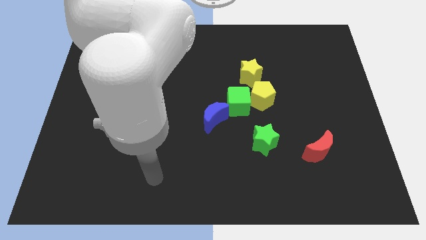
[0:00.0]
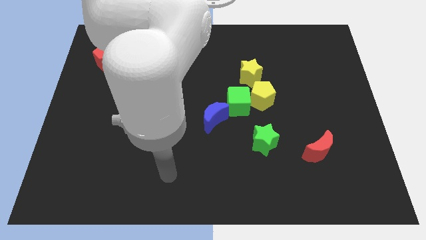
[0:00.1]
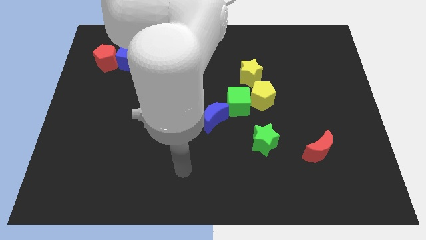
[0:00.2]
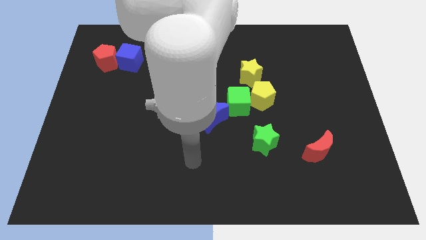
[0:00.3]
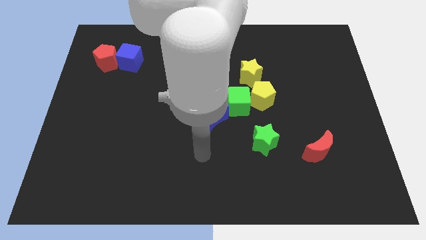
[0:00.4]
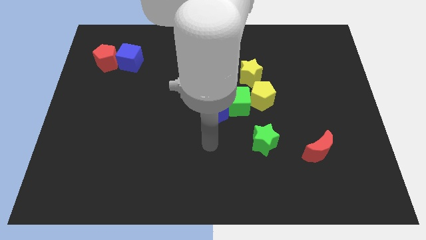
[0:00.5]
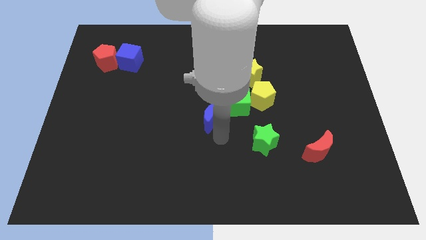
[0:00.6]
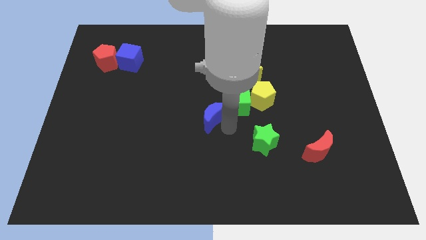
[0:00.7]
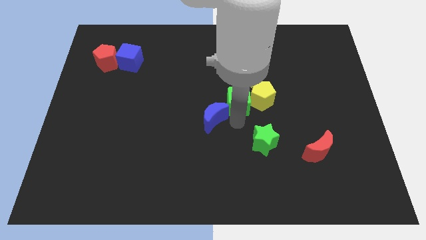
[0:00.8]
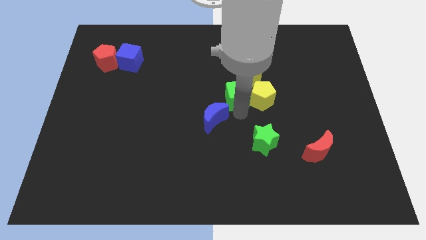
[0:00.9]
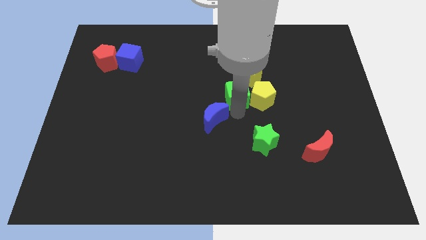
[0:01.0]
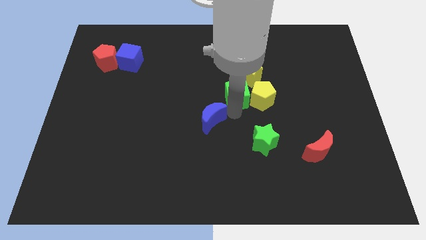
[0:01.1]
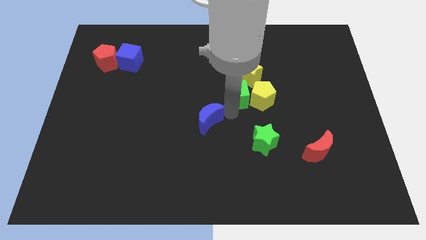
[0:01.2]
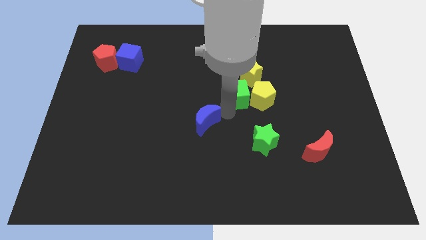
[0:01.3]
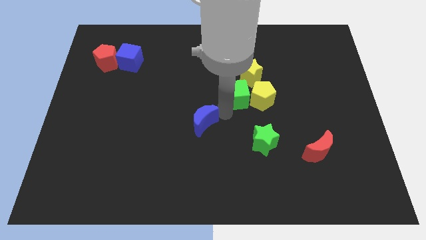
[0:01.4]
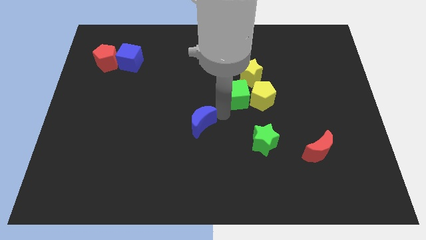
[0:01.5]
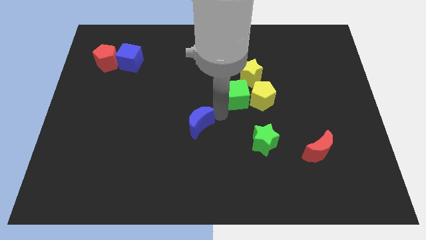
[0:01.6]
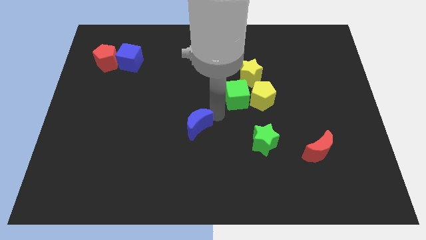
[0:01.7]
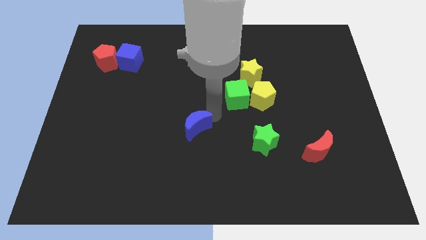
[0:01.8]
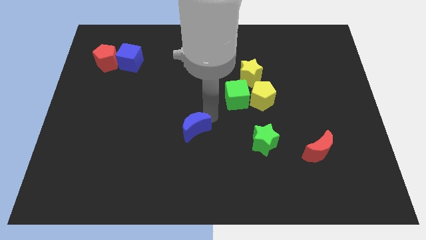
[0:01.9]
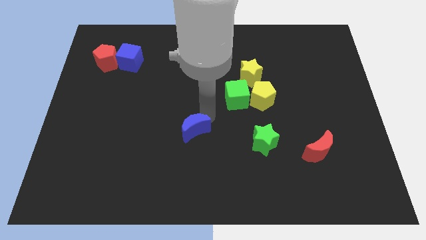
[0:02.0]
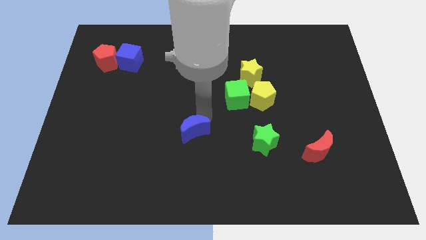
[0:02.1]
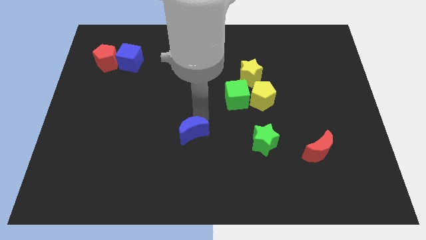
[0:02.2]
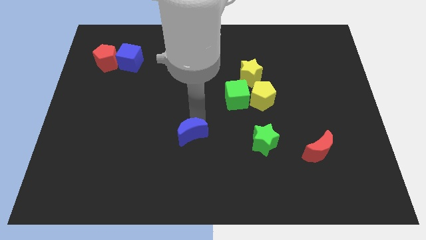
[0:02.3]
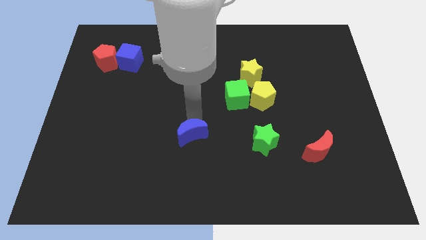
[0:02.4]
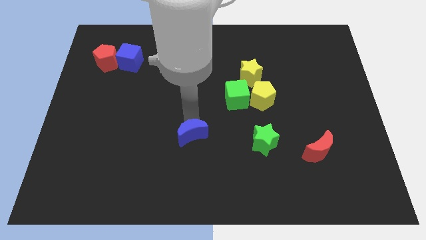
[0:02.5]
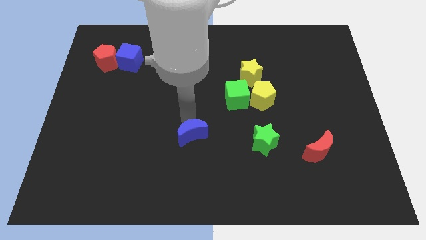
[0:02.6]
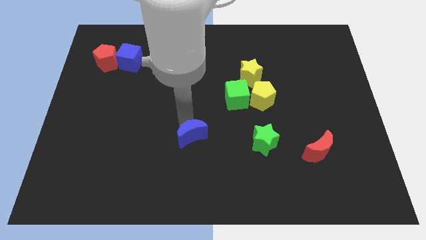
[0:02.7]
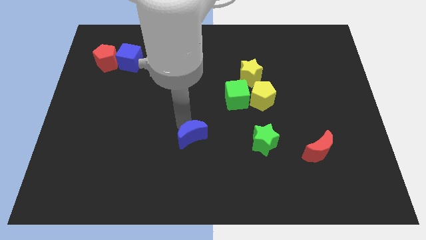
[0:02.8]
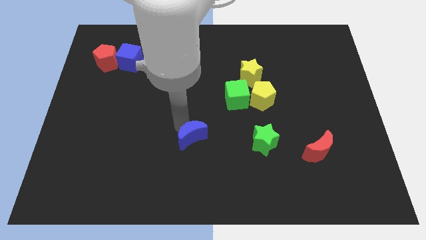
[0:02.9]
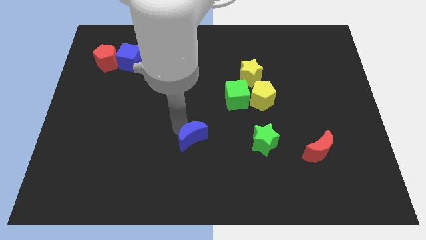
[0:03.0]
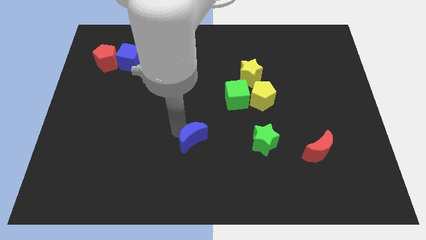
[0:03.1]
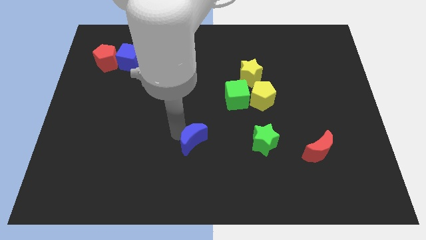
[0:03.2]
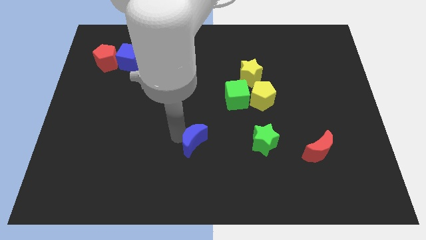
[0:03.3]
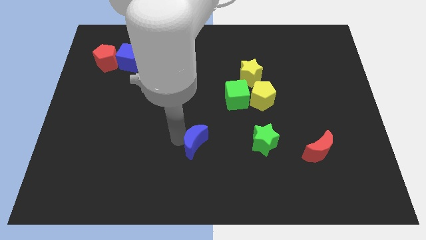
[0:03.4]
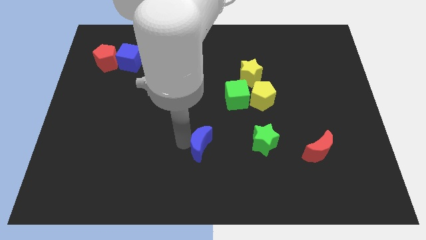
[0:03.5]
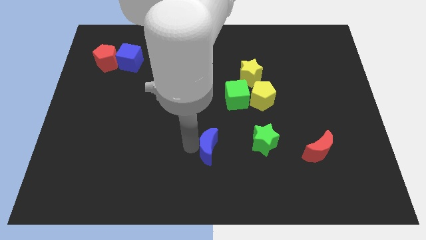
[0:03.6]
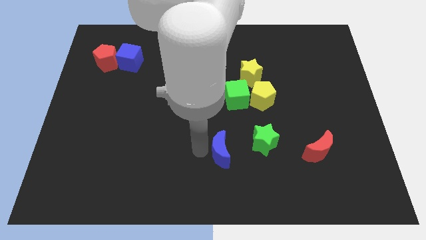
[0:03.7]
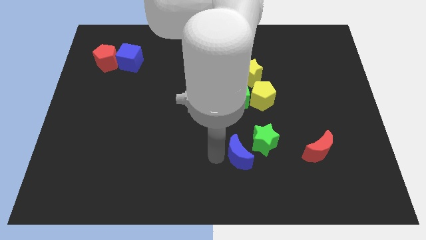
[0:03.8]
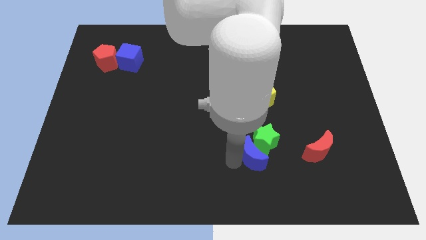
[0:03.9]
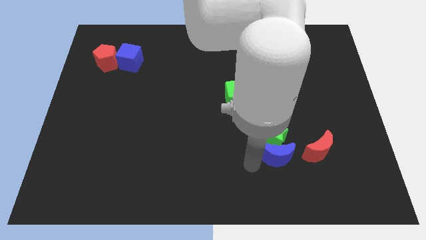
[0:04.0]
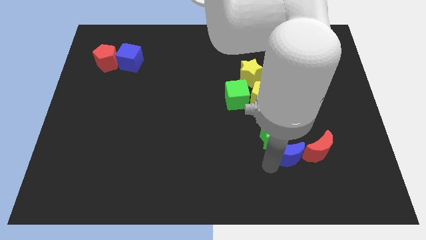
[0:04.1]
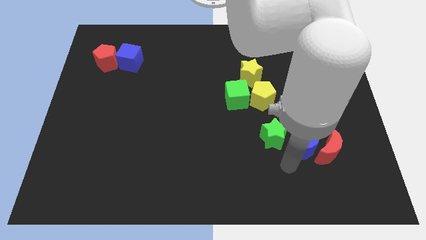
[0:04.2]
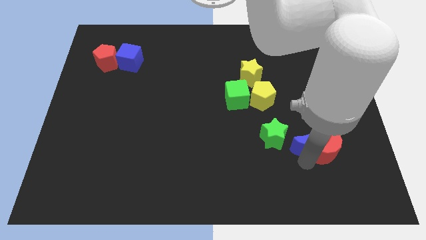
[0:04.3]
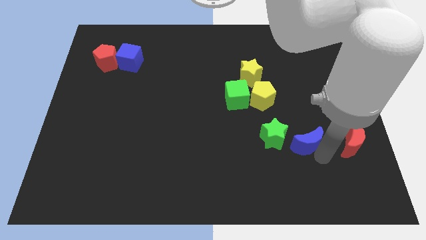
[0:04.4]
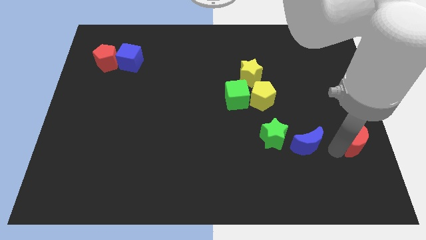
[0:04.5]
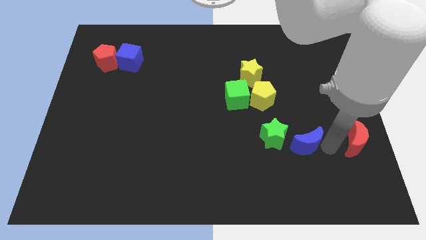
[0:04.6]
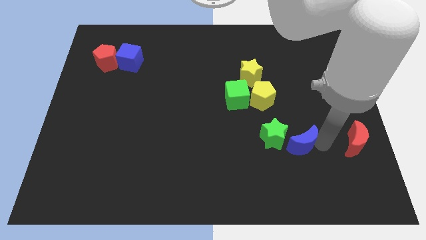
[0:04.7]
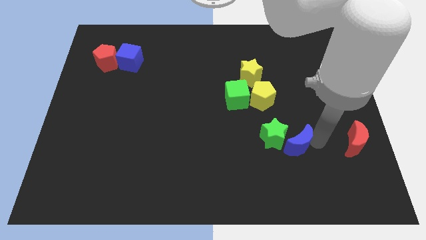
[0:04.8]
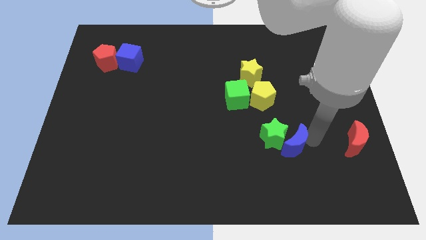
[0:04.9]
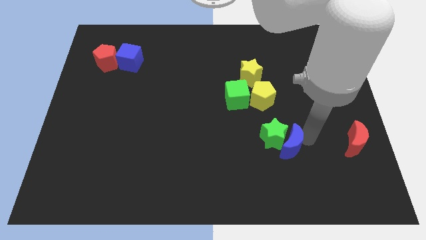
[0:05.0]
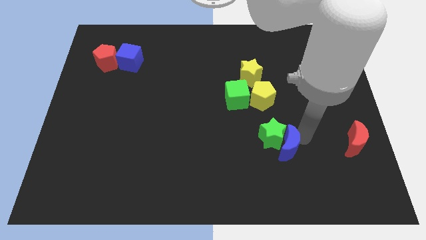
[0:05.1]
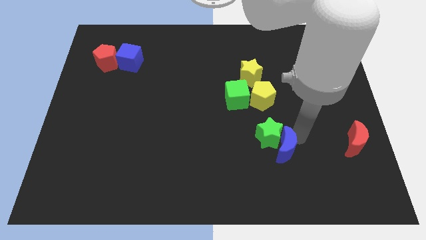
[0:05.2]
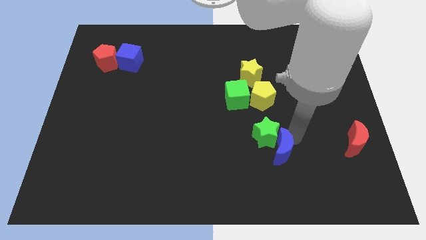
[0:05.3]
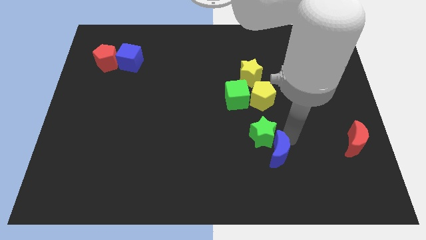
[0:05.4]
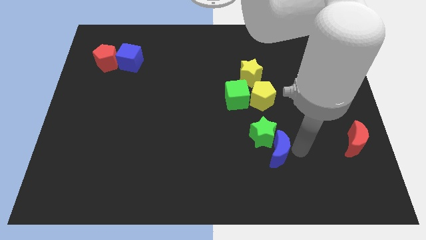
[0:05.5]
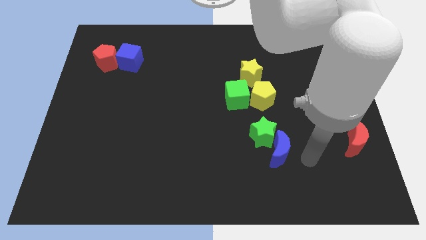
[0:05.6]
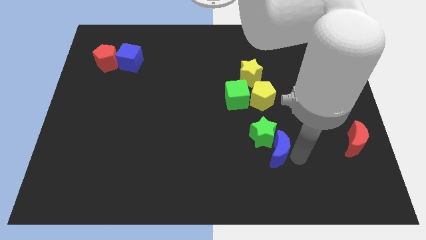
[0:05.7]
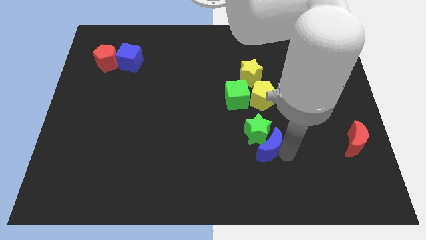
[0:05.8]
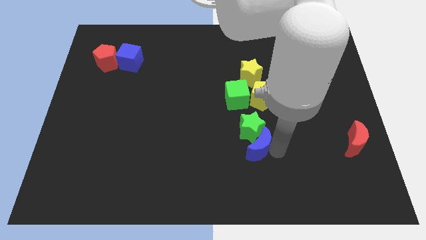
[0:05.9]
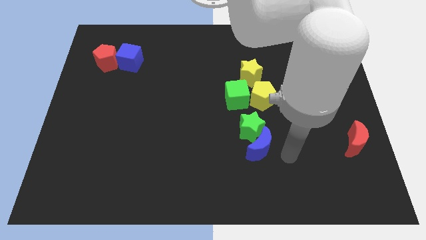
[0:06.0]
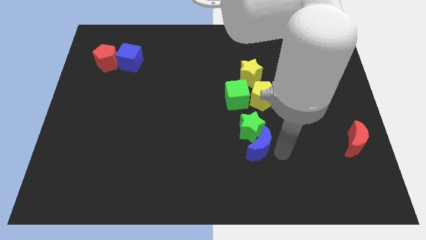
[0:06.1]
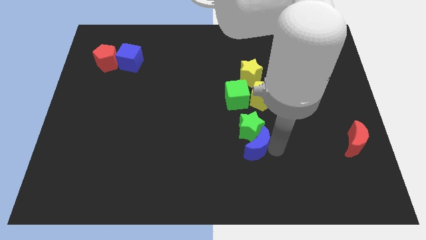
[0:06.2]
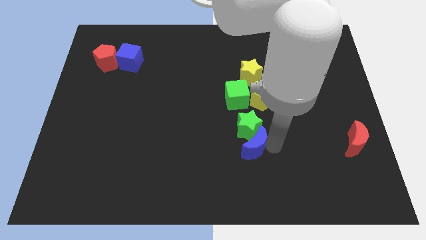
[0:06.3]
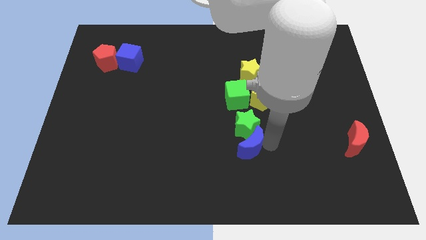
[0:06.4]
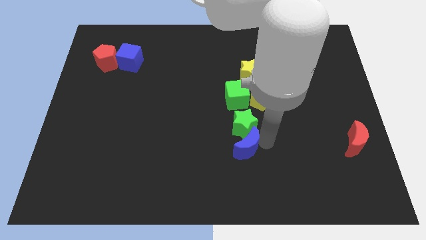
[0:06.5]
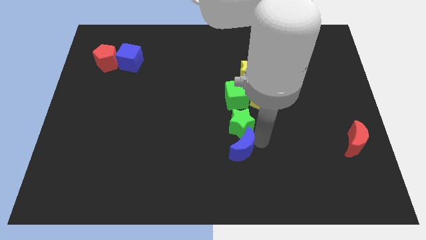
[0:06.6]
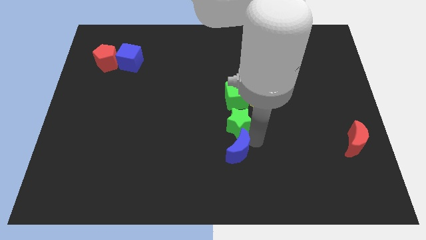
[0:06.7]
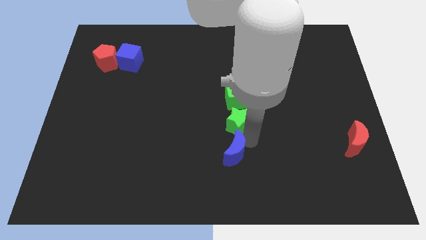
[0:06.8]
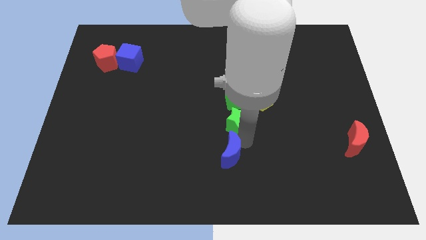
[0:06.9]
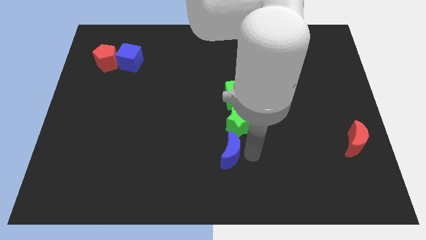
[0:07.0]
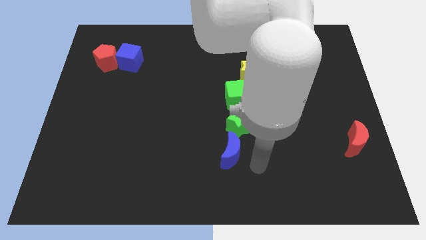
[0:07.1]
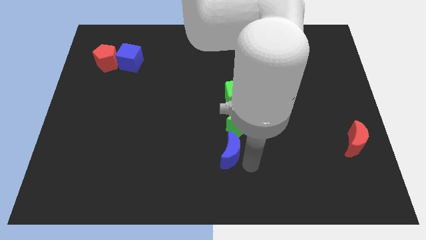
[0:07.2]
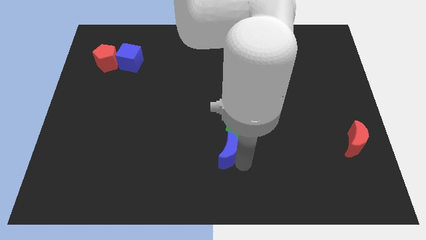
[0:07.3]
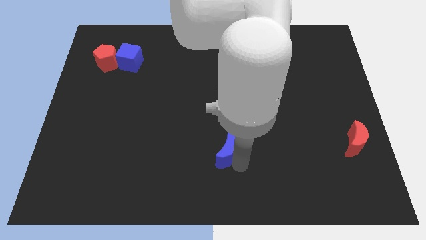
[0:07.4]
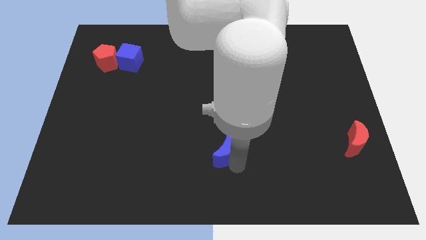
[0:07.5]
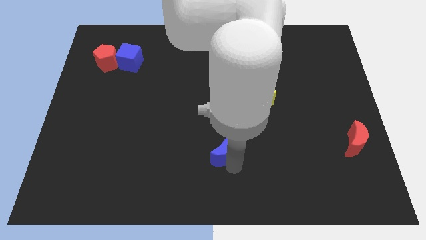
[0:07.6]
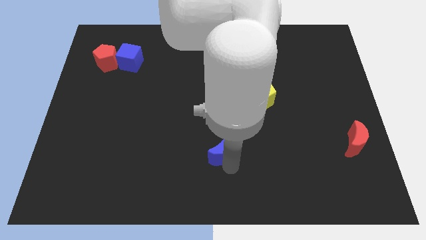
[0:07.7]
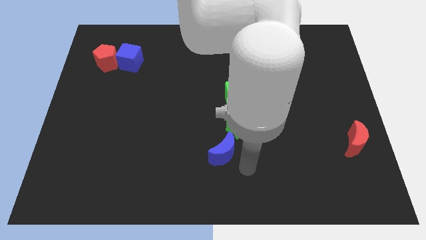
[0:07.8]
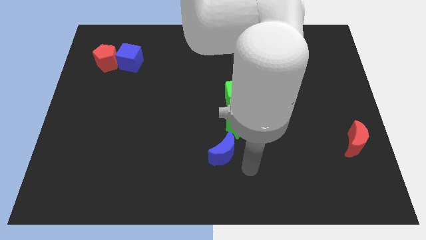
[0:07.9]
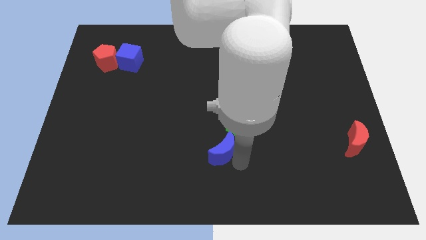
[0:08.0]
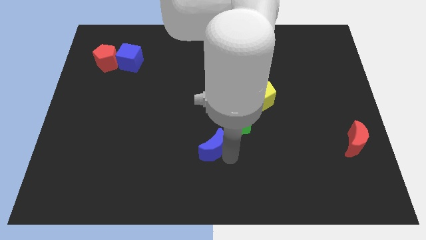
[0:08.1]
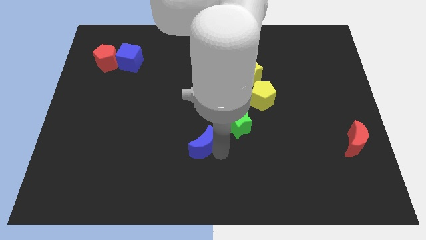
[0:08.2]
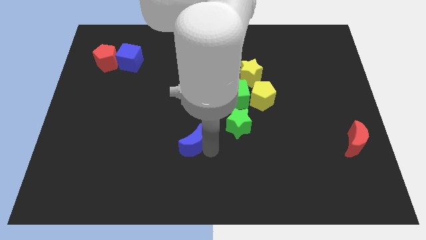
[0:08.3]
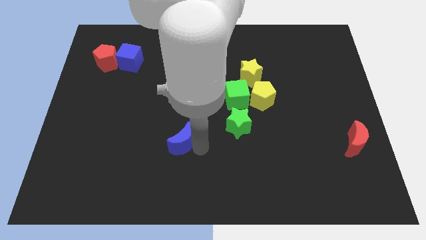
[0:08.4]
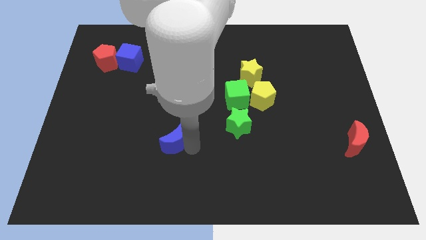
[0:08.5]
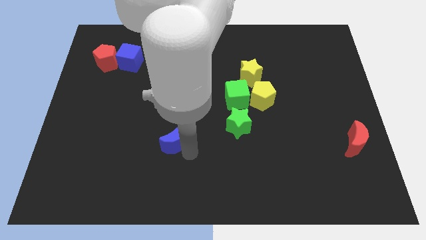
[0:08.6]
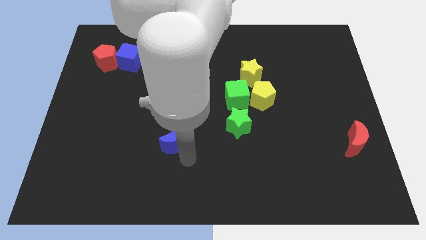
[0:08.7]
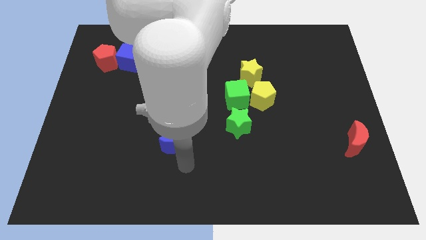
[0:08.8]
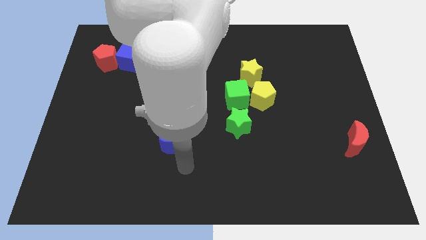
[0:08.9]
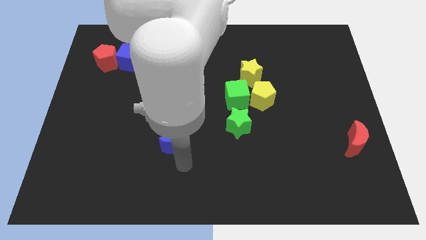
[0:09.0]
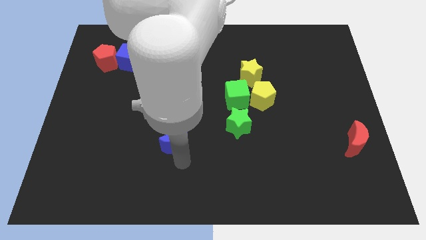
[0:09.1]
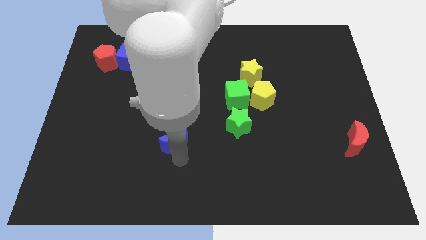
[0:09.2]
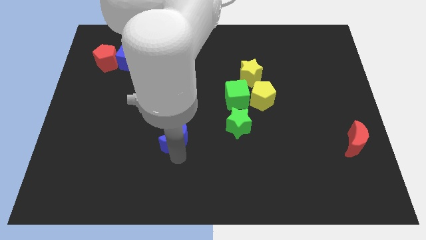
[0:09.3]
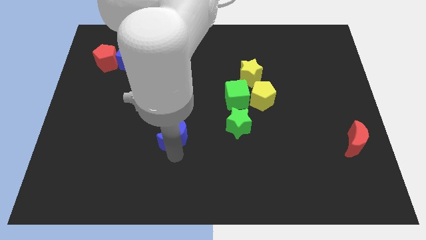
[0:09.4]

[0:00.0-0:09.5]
slightly slide the blue moon left
